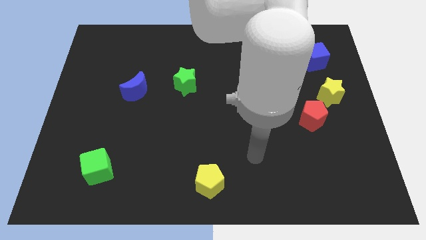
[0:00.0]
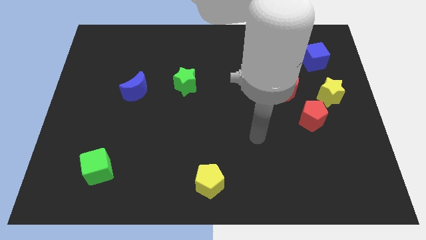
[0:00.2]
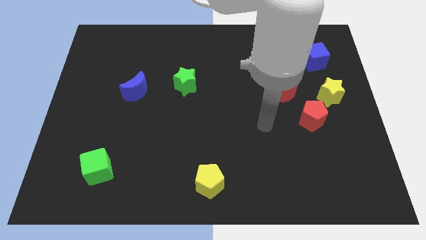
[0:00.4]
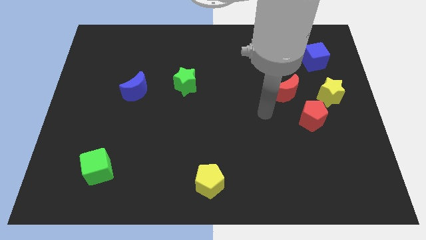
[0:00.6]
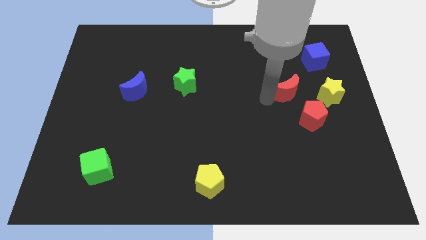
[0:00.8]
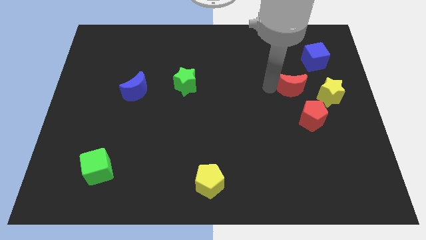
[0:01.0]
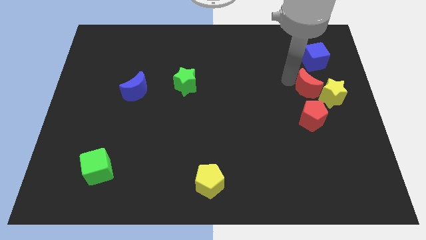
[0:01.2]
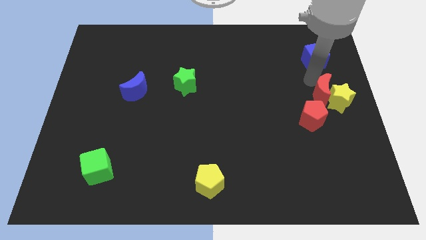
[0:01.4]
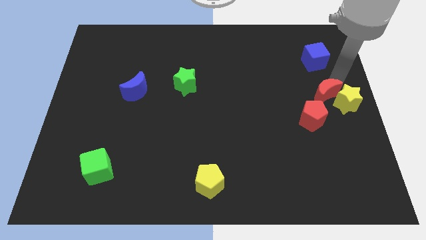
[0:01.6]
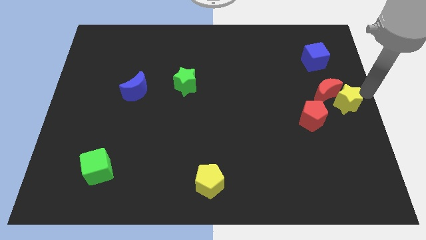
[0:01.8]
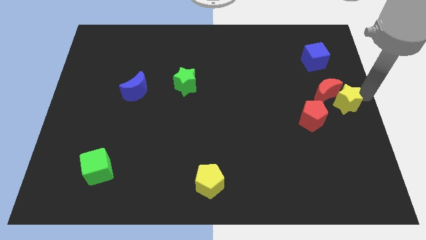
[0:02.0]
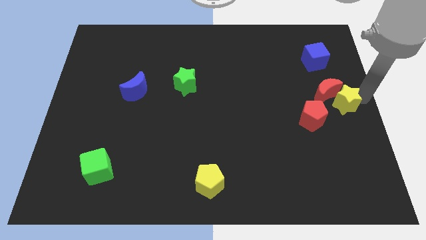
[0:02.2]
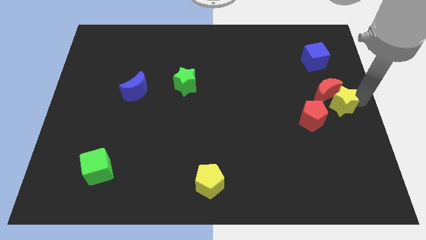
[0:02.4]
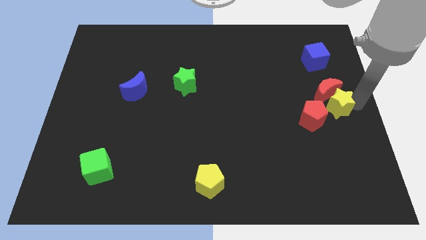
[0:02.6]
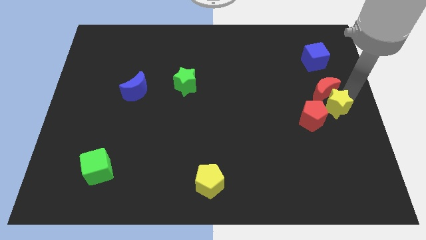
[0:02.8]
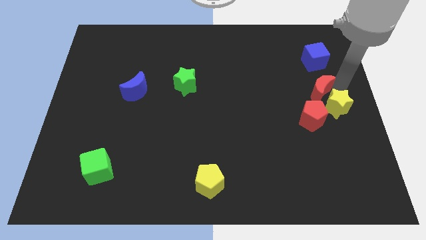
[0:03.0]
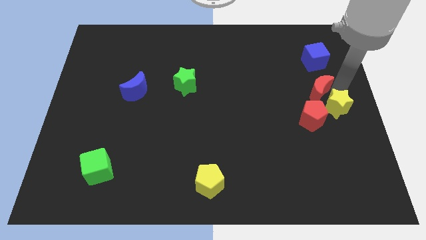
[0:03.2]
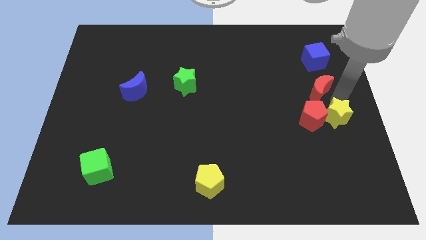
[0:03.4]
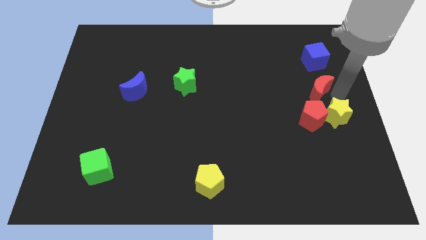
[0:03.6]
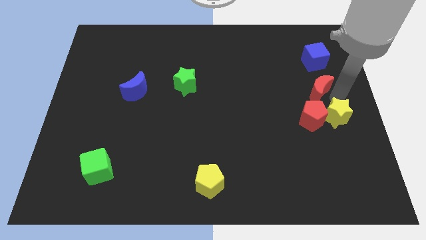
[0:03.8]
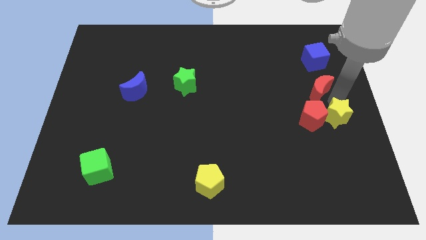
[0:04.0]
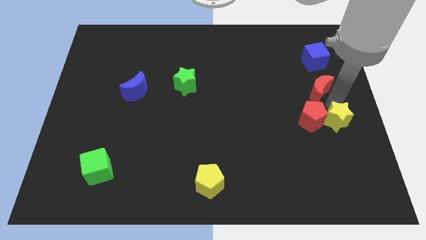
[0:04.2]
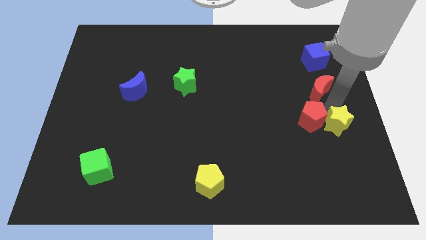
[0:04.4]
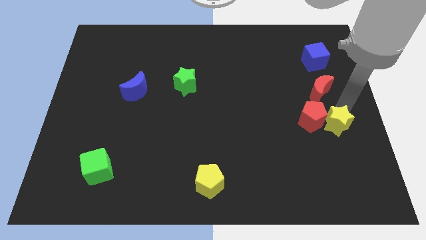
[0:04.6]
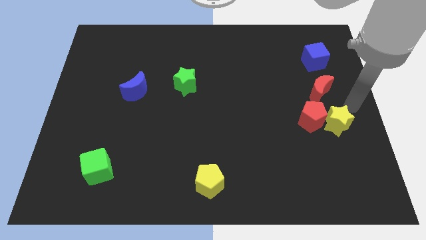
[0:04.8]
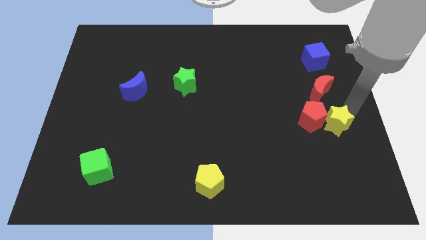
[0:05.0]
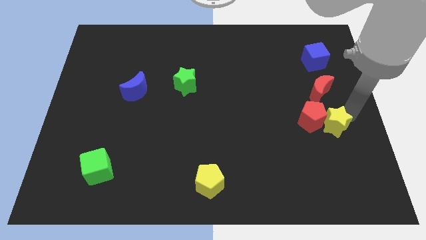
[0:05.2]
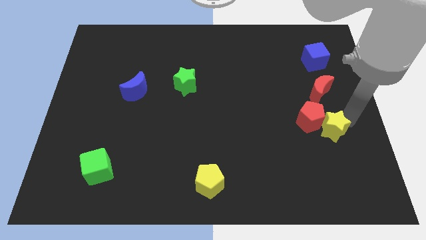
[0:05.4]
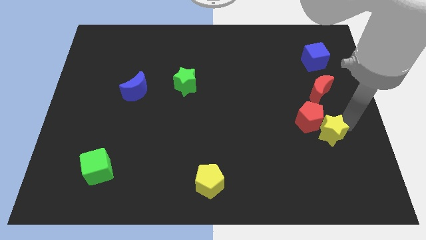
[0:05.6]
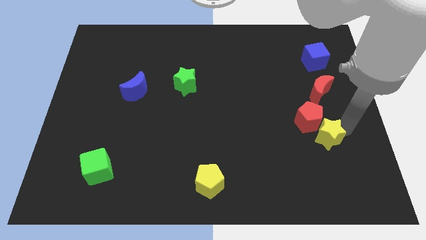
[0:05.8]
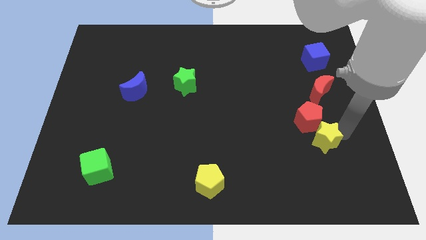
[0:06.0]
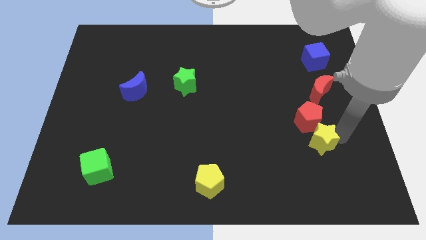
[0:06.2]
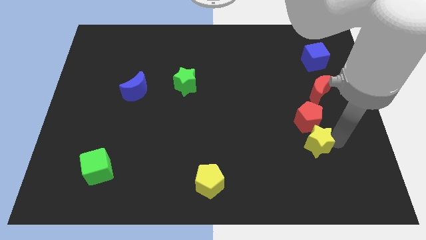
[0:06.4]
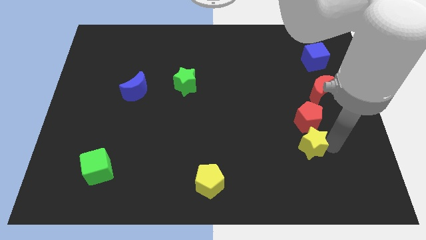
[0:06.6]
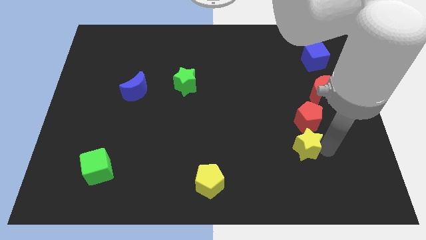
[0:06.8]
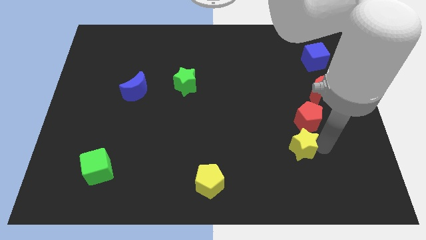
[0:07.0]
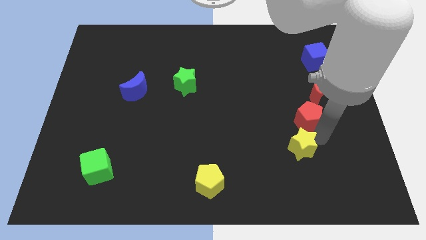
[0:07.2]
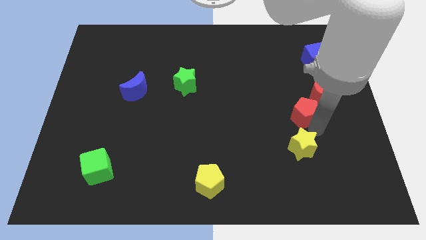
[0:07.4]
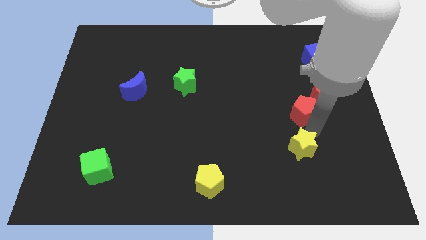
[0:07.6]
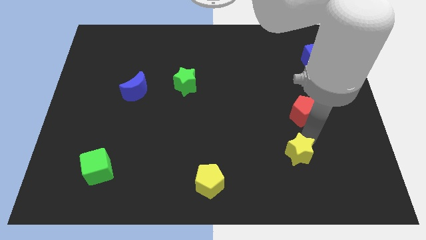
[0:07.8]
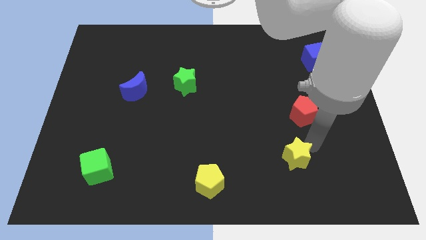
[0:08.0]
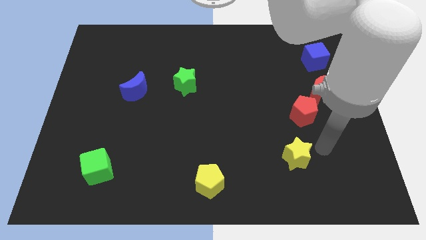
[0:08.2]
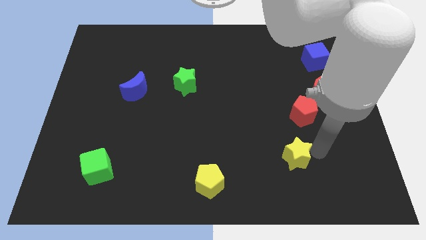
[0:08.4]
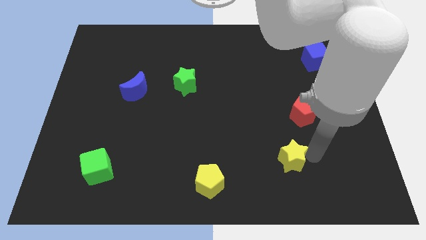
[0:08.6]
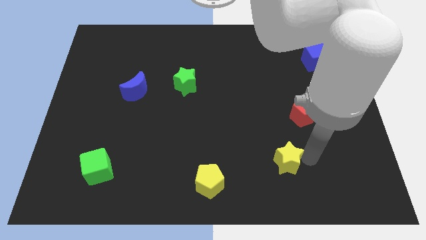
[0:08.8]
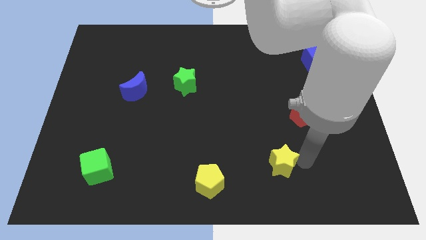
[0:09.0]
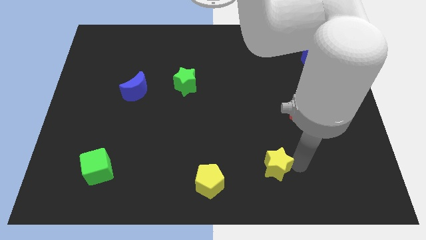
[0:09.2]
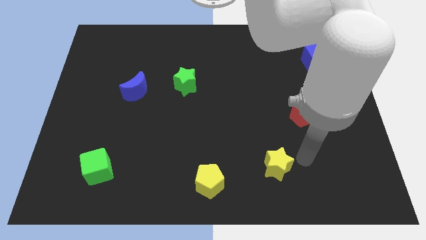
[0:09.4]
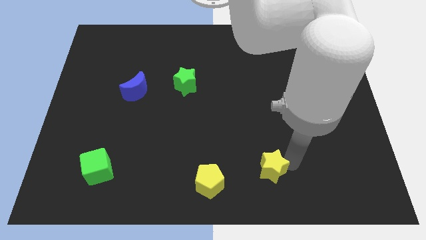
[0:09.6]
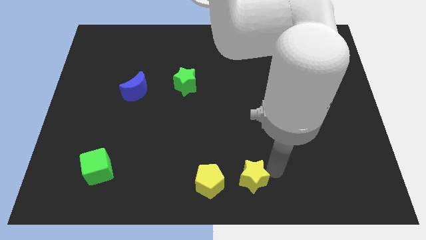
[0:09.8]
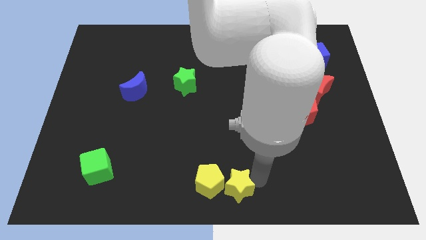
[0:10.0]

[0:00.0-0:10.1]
slide the yellow star next to the yellow pentagon

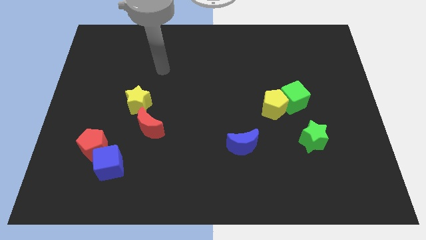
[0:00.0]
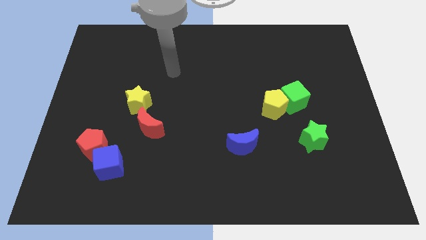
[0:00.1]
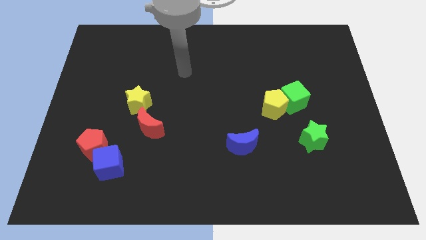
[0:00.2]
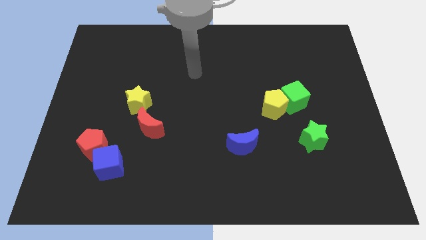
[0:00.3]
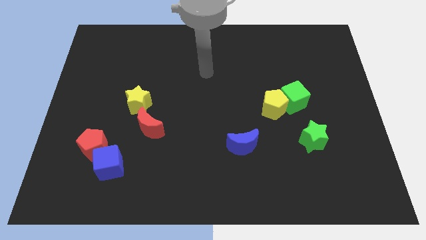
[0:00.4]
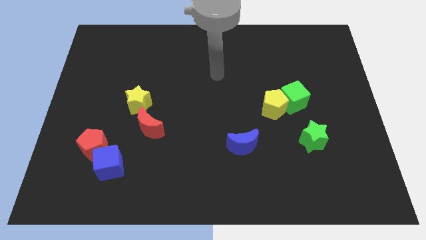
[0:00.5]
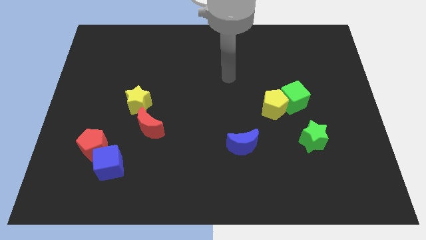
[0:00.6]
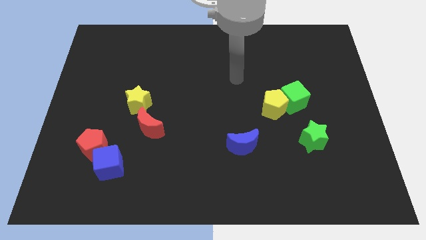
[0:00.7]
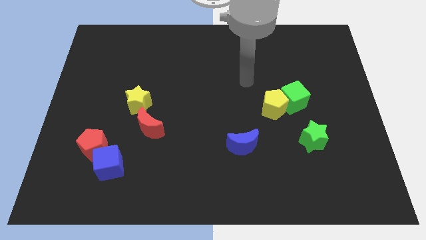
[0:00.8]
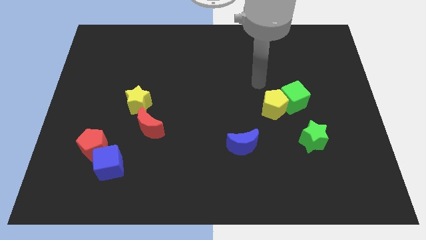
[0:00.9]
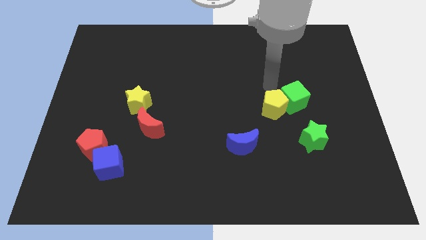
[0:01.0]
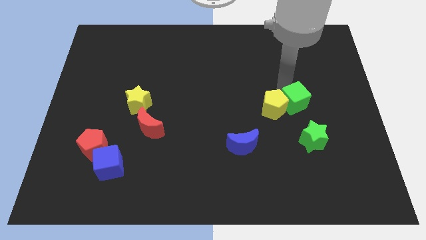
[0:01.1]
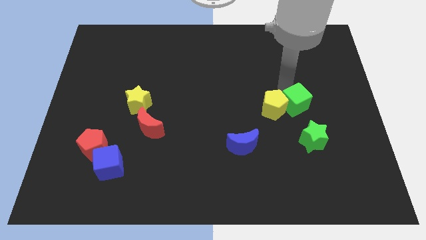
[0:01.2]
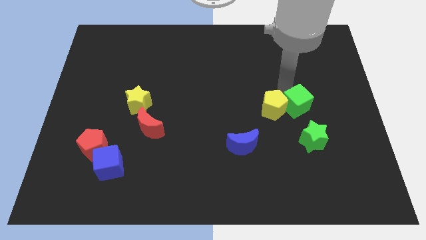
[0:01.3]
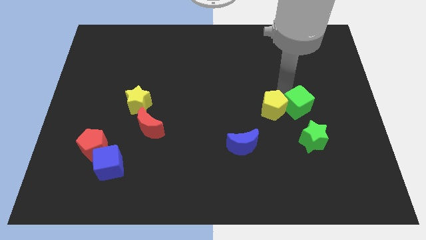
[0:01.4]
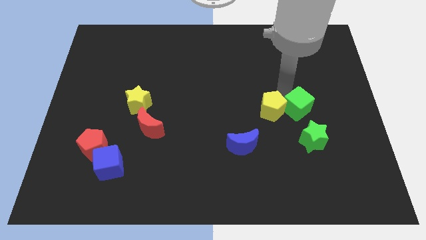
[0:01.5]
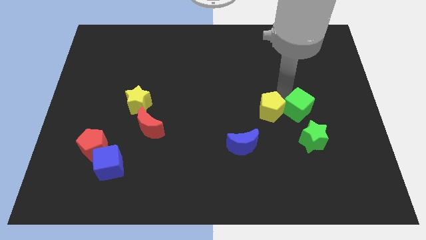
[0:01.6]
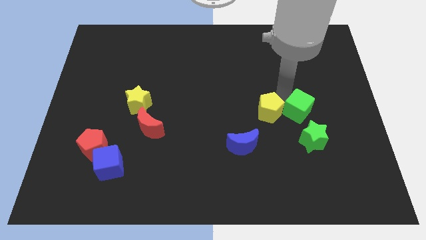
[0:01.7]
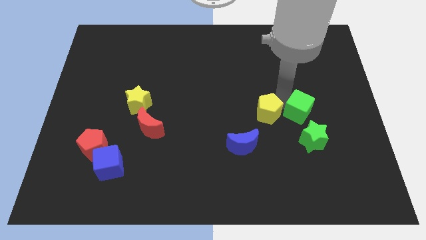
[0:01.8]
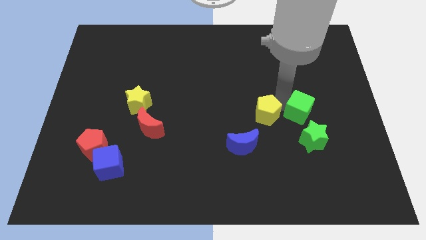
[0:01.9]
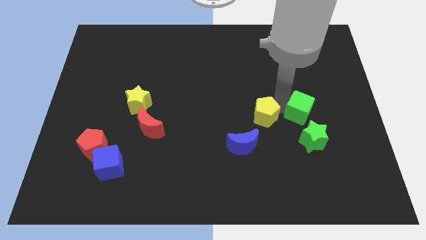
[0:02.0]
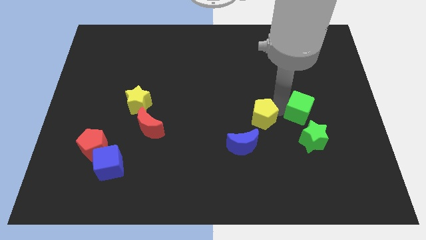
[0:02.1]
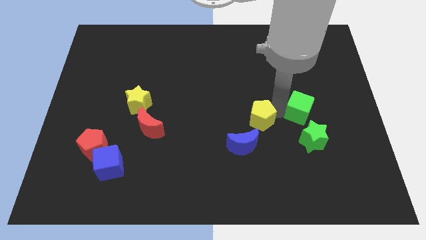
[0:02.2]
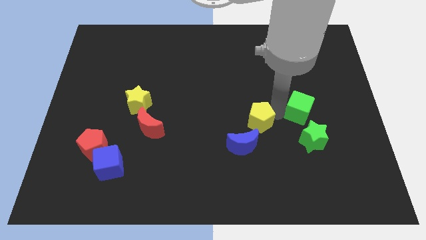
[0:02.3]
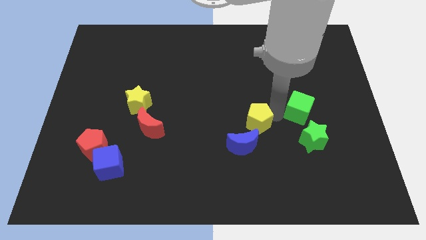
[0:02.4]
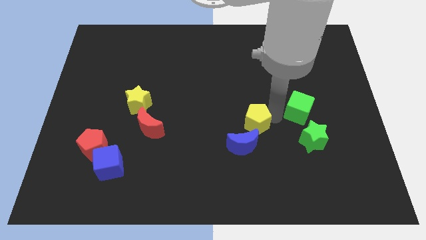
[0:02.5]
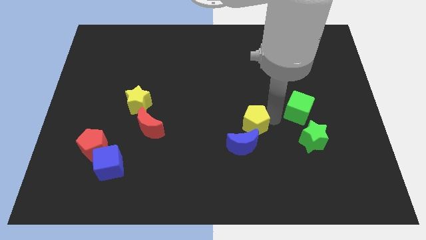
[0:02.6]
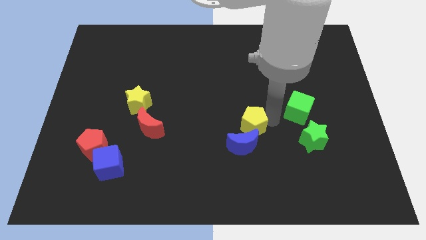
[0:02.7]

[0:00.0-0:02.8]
move the yellow pentagon close to the blue moon

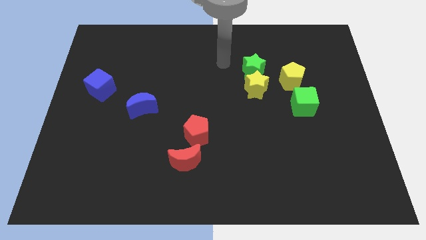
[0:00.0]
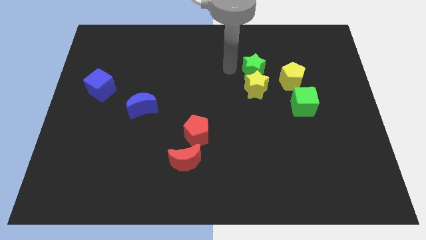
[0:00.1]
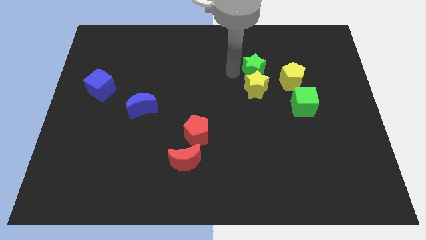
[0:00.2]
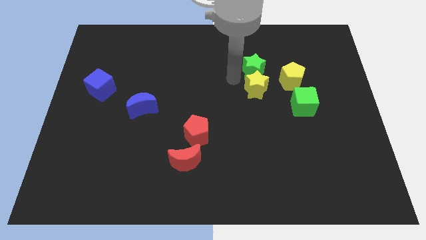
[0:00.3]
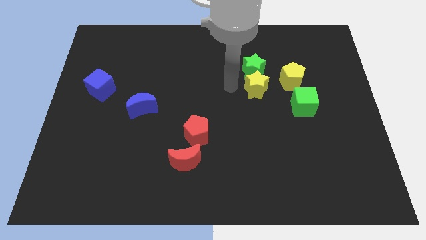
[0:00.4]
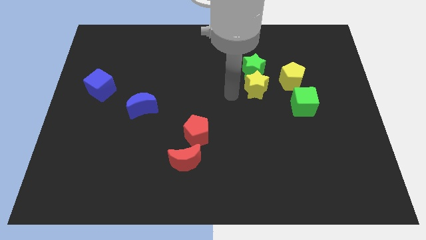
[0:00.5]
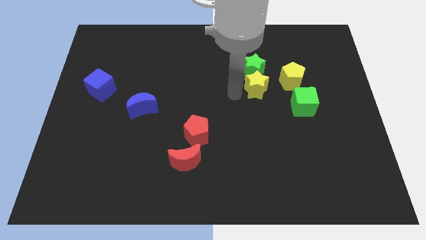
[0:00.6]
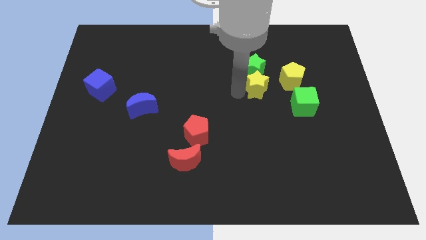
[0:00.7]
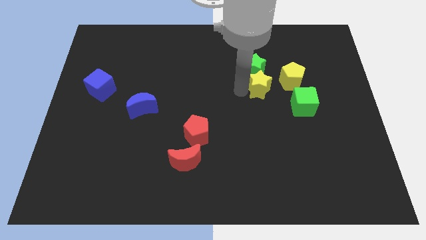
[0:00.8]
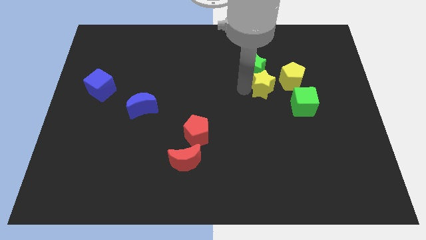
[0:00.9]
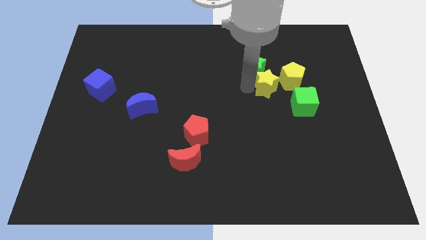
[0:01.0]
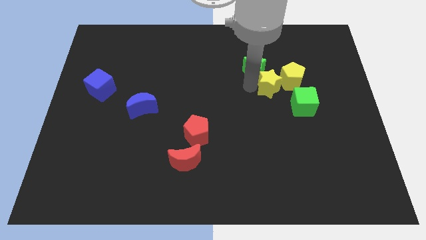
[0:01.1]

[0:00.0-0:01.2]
slide the yellow star close to the yellow pentagon
